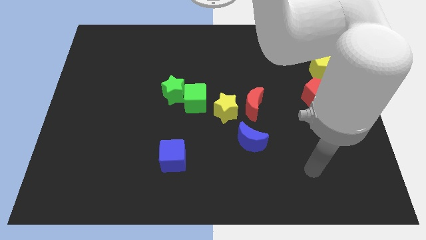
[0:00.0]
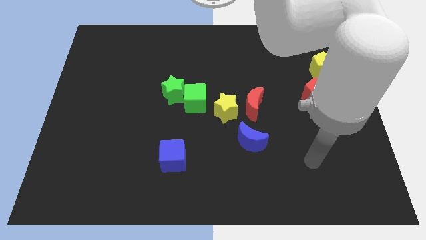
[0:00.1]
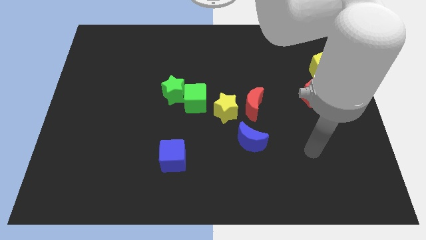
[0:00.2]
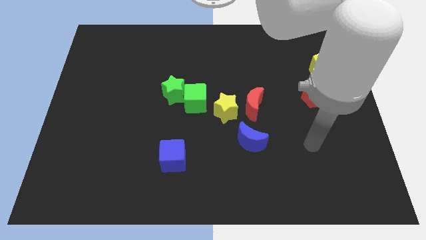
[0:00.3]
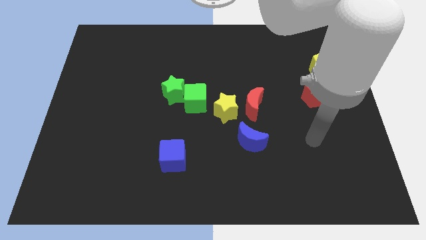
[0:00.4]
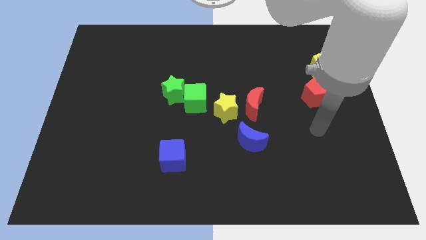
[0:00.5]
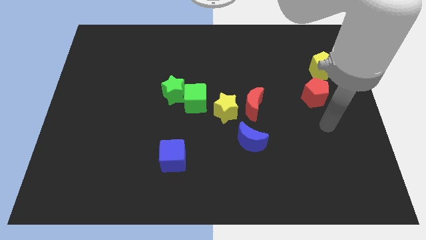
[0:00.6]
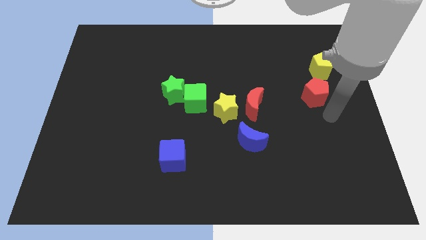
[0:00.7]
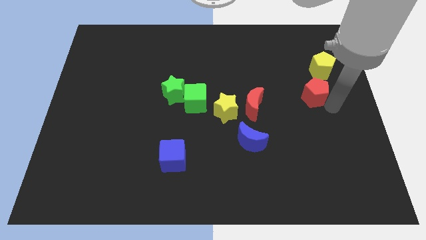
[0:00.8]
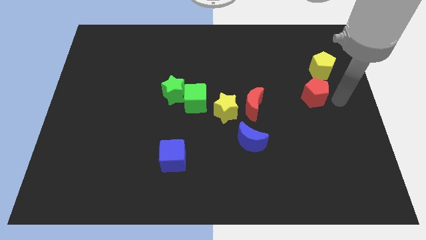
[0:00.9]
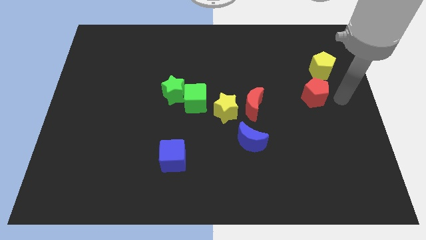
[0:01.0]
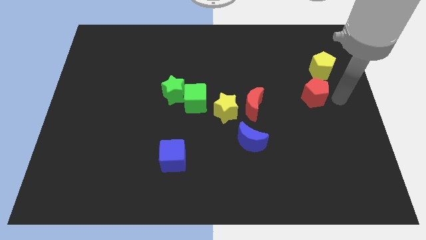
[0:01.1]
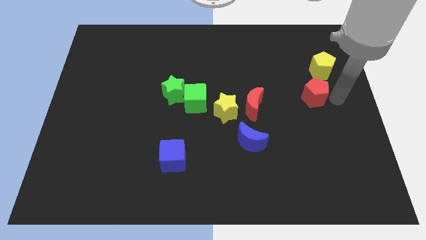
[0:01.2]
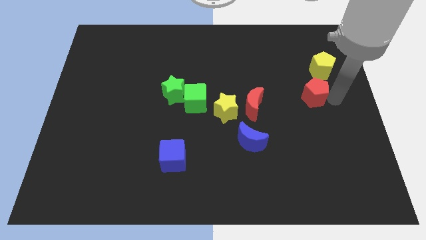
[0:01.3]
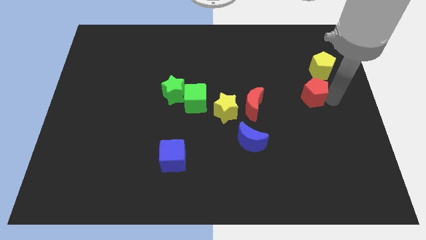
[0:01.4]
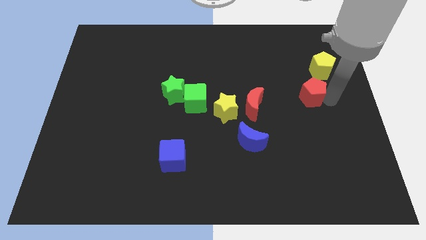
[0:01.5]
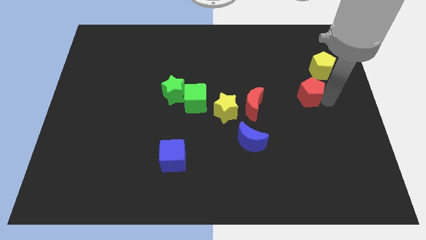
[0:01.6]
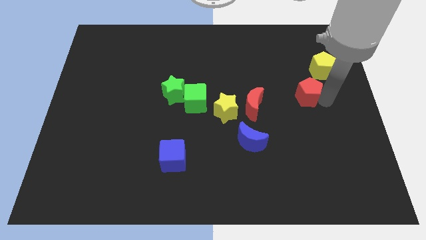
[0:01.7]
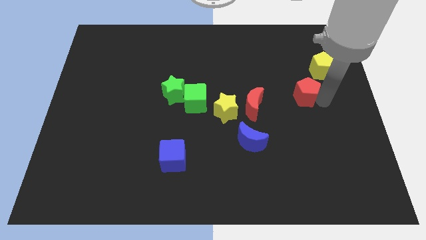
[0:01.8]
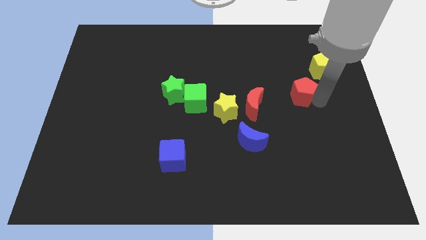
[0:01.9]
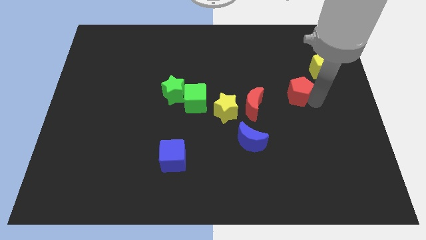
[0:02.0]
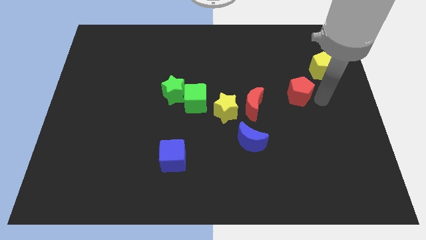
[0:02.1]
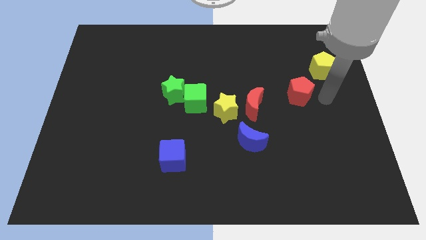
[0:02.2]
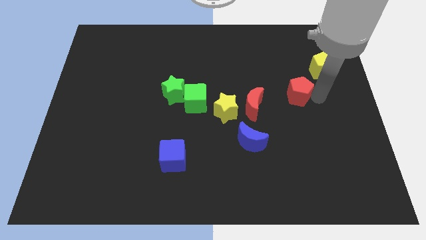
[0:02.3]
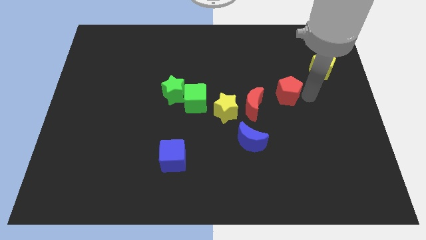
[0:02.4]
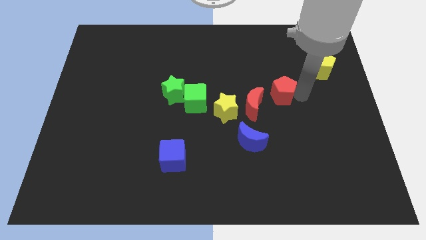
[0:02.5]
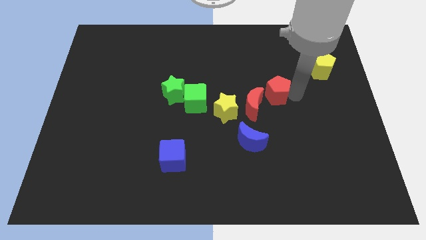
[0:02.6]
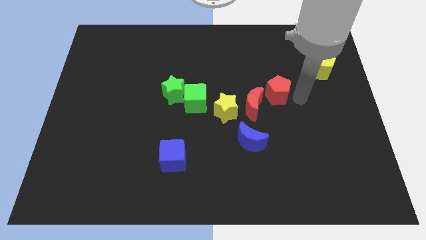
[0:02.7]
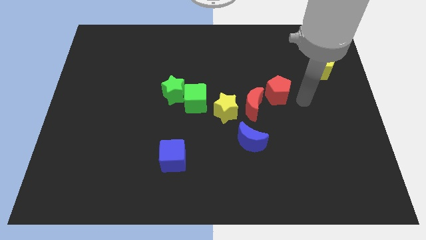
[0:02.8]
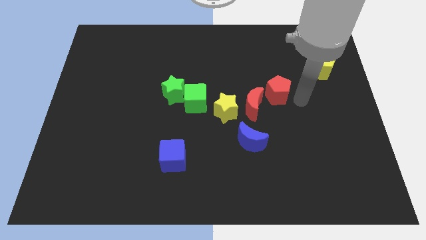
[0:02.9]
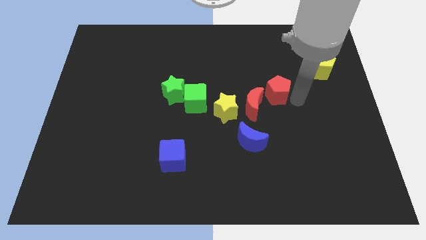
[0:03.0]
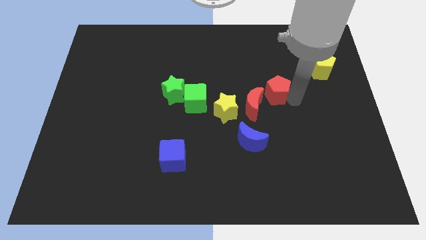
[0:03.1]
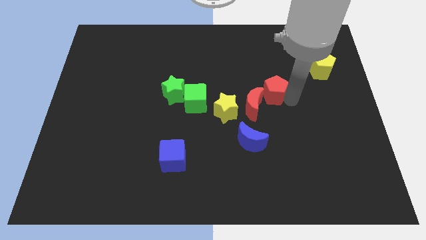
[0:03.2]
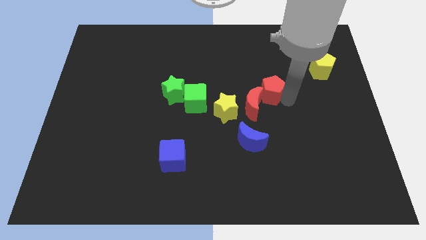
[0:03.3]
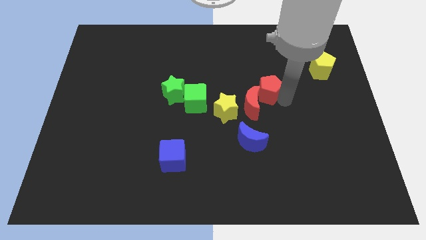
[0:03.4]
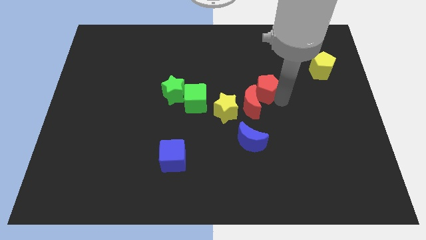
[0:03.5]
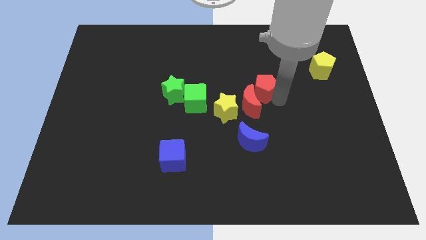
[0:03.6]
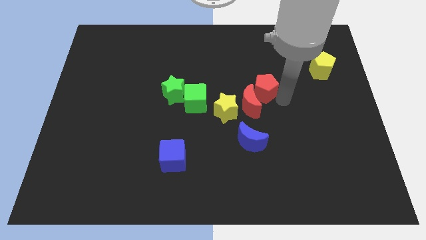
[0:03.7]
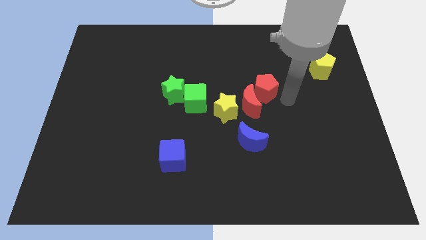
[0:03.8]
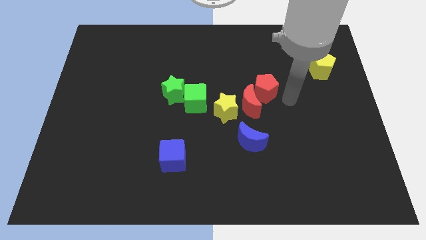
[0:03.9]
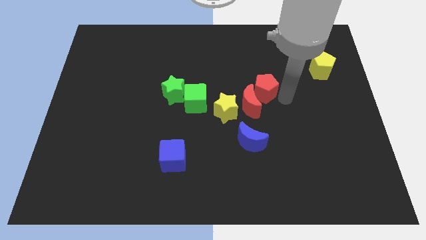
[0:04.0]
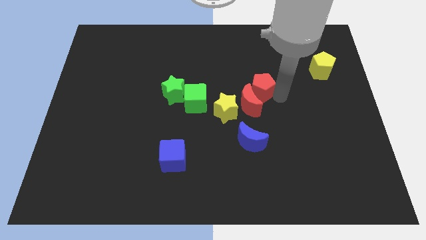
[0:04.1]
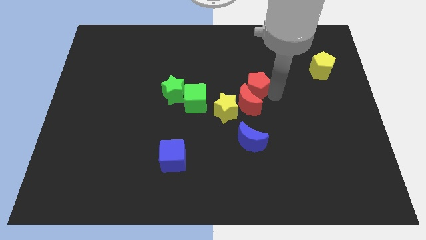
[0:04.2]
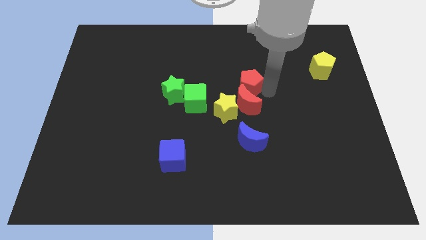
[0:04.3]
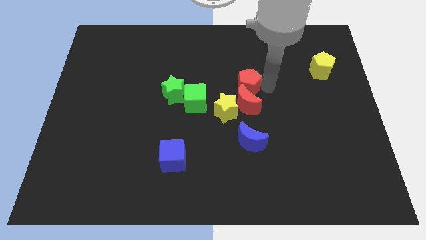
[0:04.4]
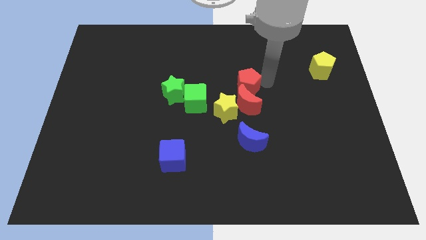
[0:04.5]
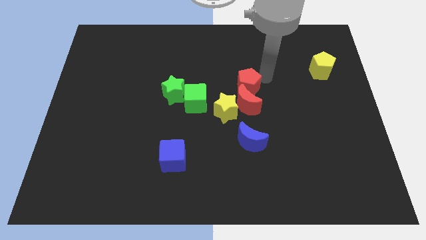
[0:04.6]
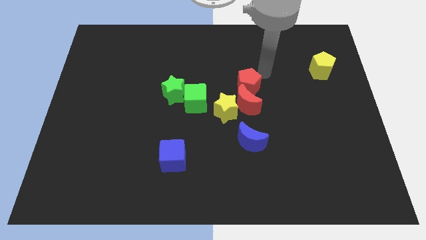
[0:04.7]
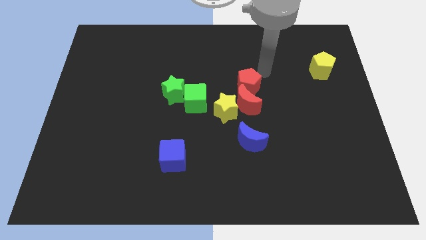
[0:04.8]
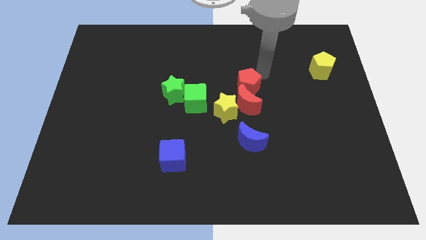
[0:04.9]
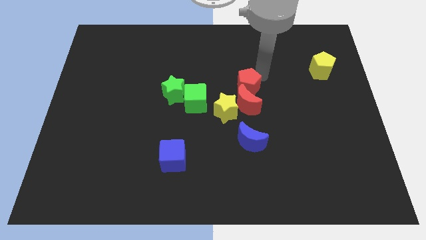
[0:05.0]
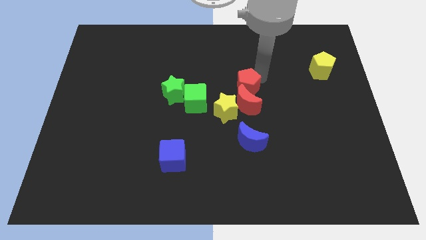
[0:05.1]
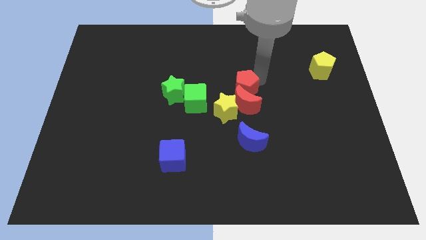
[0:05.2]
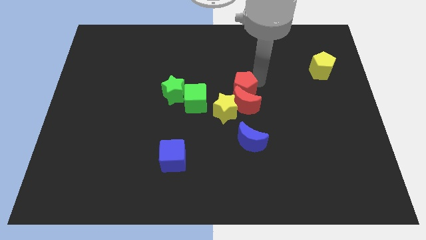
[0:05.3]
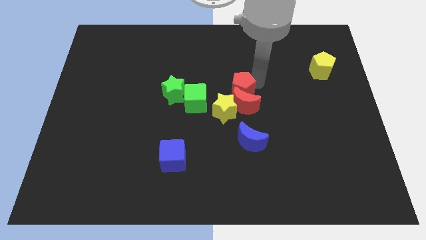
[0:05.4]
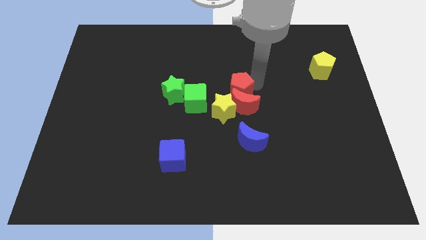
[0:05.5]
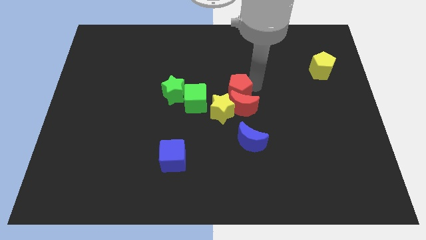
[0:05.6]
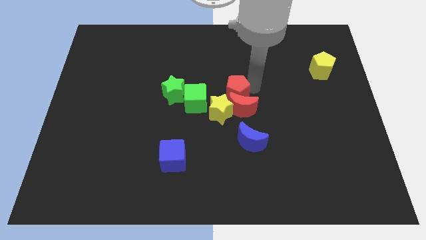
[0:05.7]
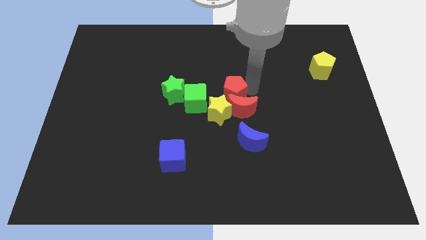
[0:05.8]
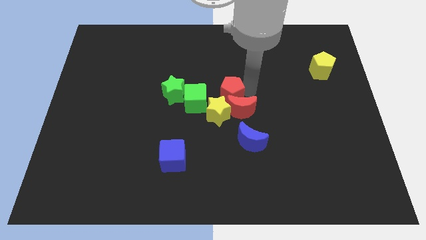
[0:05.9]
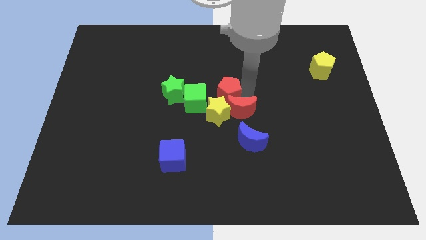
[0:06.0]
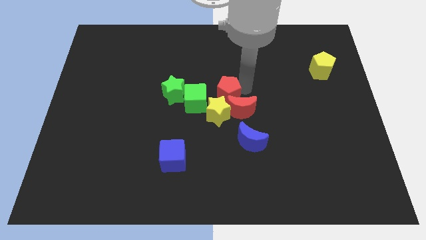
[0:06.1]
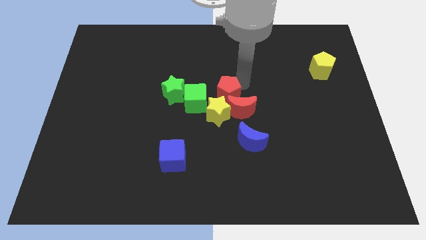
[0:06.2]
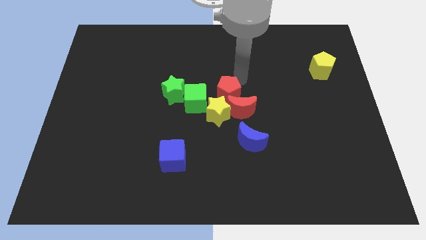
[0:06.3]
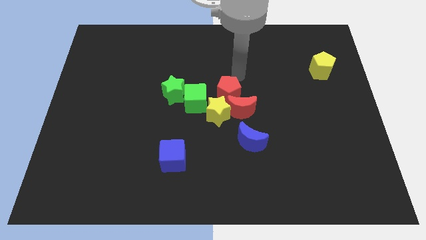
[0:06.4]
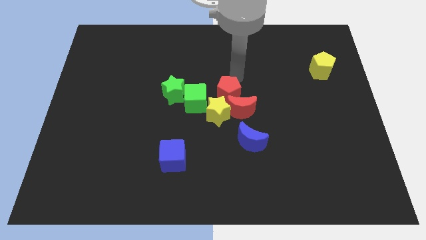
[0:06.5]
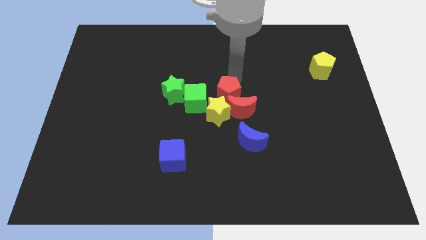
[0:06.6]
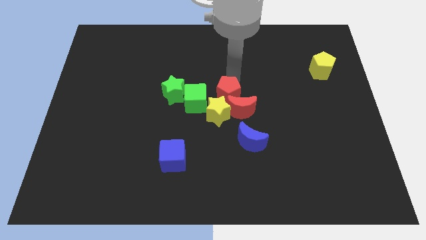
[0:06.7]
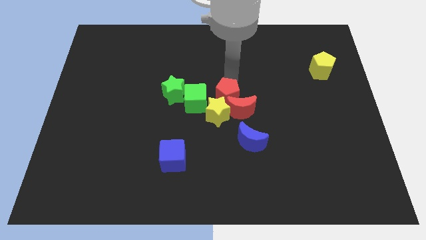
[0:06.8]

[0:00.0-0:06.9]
put the red pentagon towards the yellow star

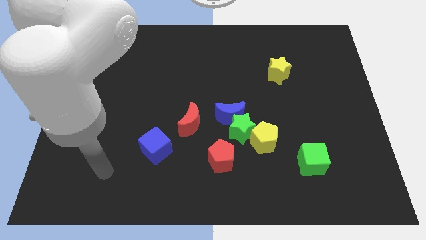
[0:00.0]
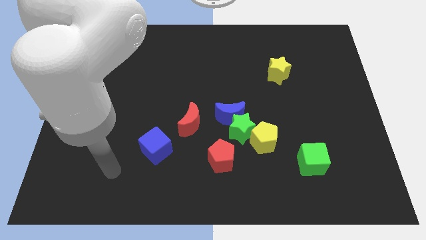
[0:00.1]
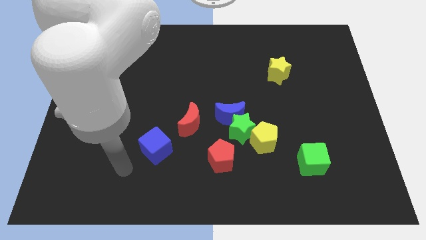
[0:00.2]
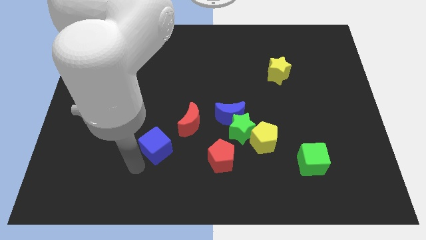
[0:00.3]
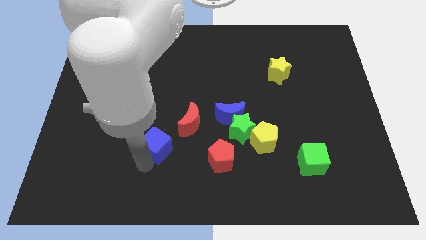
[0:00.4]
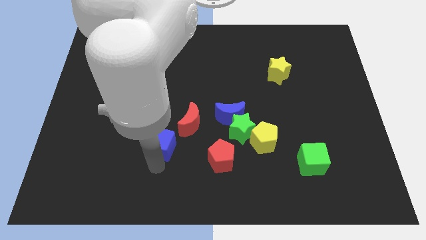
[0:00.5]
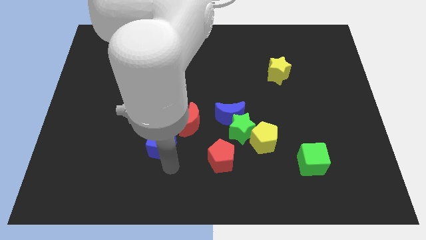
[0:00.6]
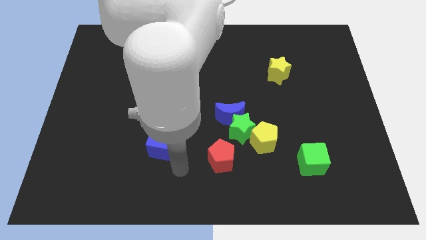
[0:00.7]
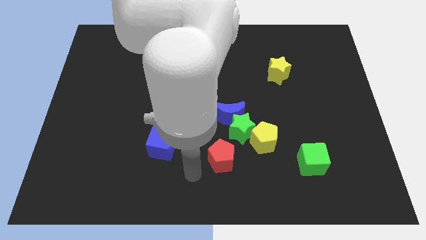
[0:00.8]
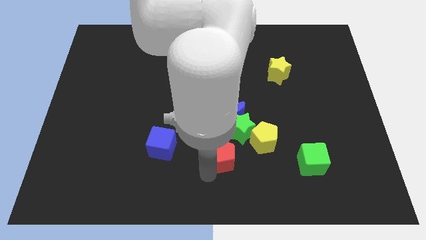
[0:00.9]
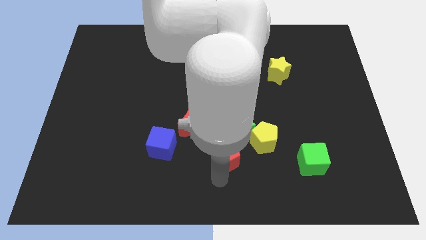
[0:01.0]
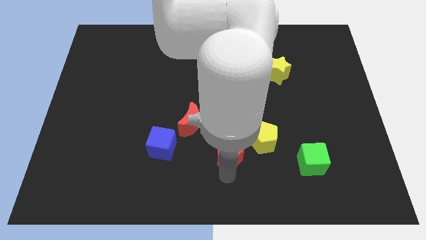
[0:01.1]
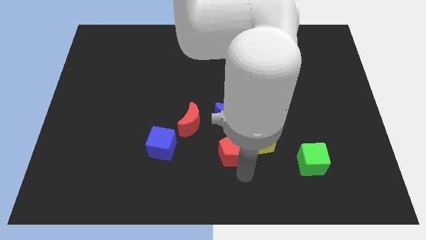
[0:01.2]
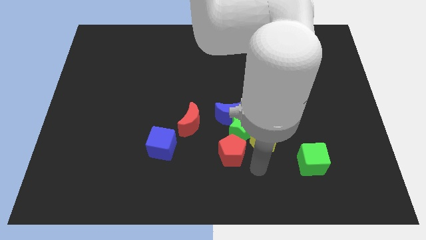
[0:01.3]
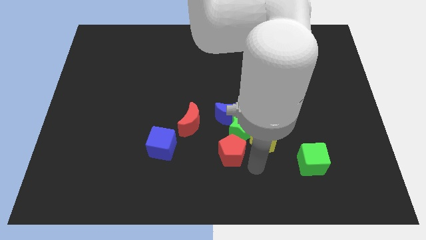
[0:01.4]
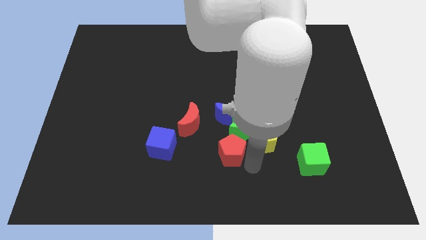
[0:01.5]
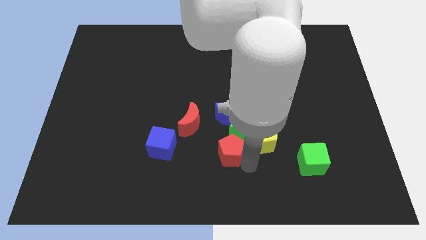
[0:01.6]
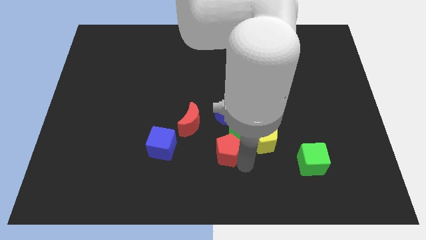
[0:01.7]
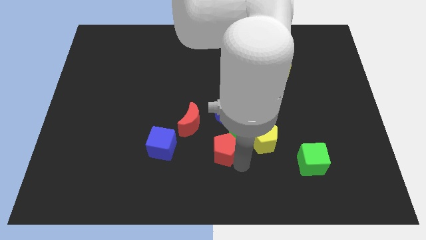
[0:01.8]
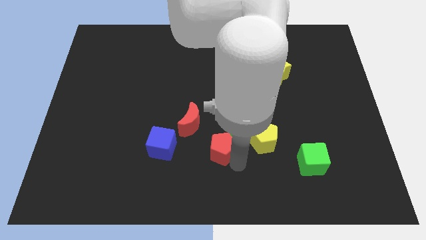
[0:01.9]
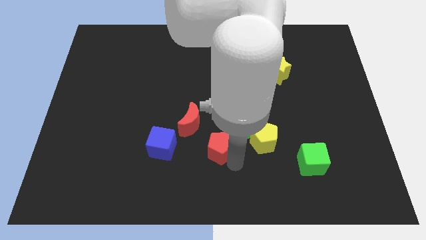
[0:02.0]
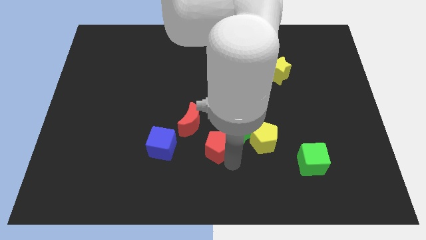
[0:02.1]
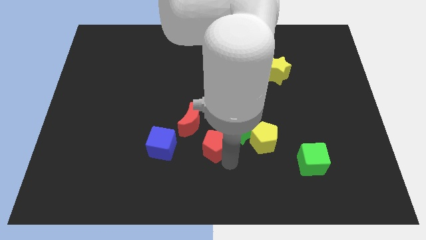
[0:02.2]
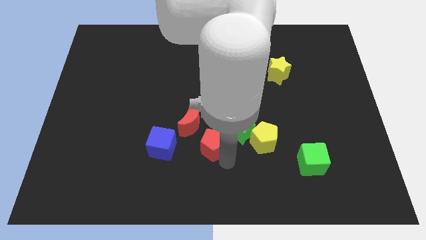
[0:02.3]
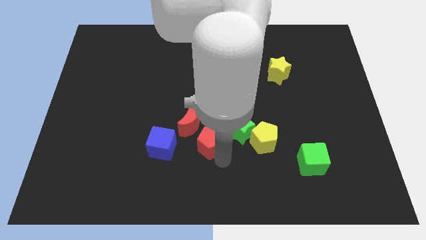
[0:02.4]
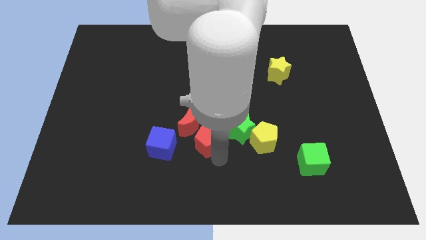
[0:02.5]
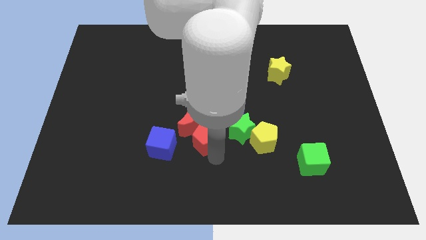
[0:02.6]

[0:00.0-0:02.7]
slide the red pentagon close to the red moon
